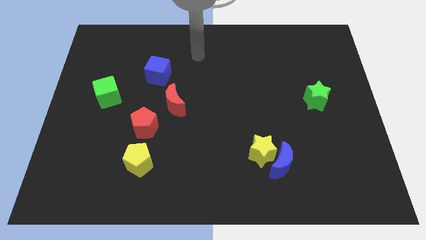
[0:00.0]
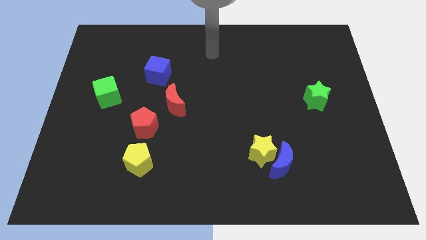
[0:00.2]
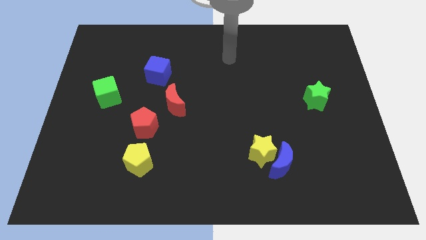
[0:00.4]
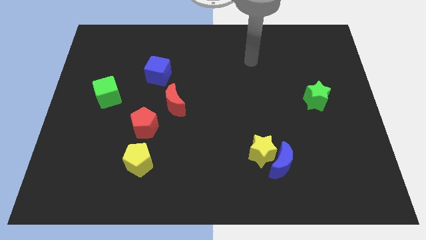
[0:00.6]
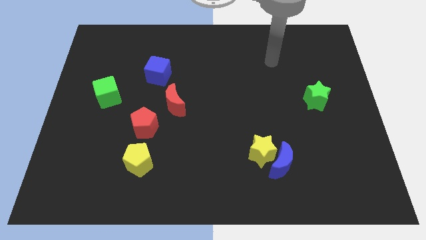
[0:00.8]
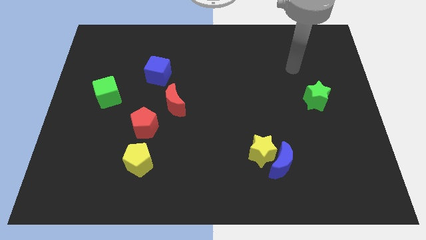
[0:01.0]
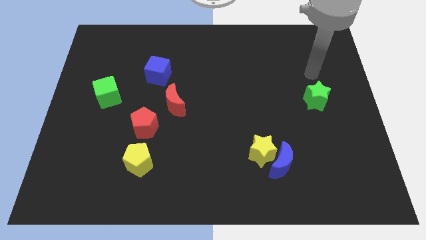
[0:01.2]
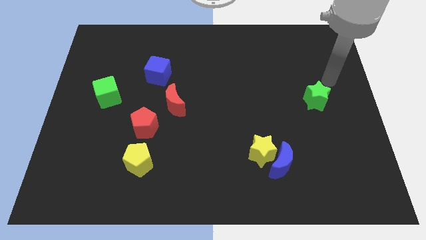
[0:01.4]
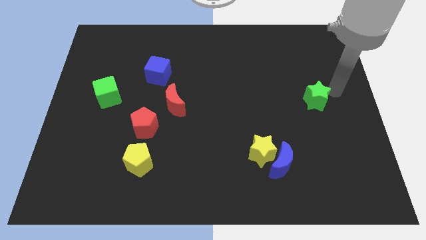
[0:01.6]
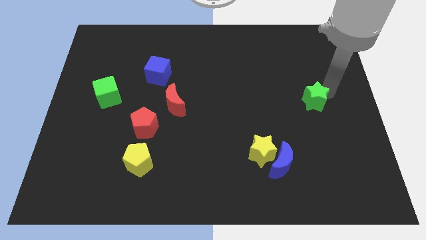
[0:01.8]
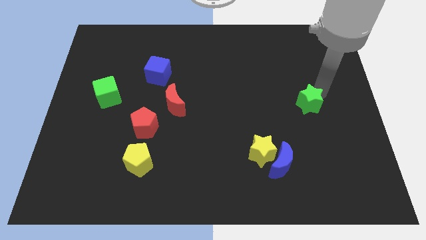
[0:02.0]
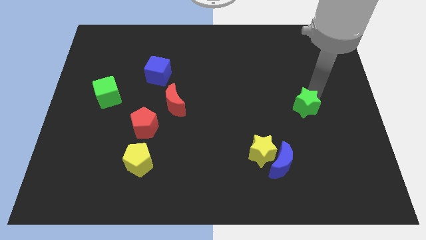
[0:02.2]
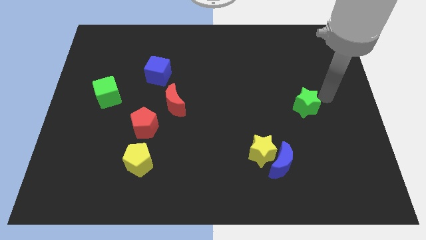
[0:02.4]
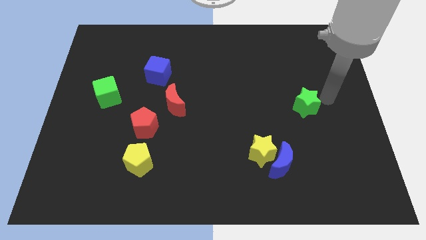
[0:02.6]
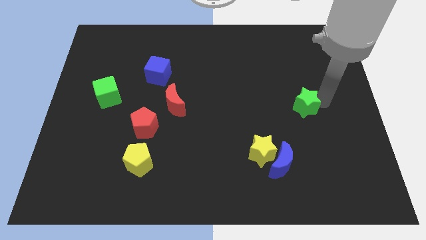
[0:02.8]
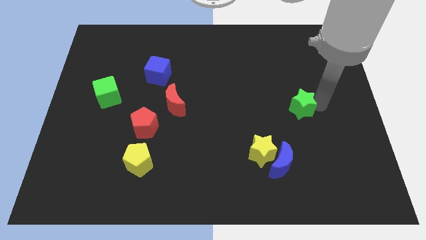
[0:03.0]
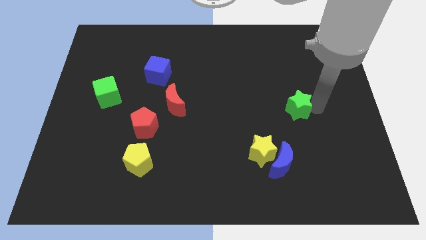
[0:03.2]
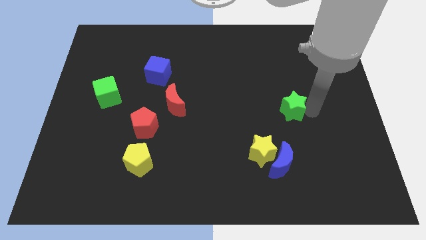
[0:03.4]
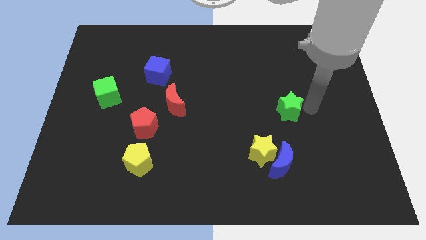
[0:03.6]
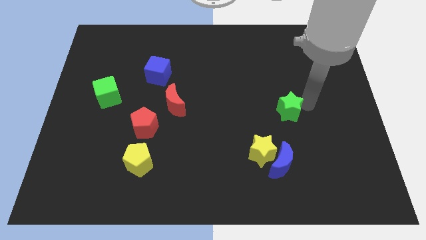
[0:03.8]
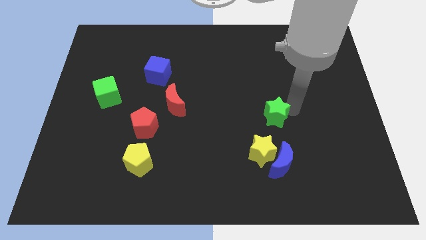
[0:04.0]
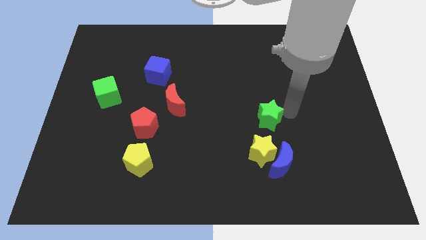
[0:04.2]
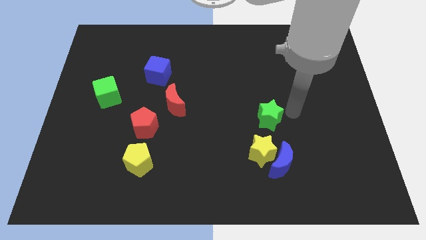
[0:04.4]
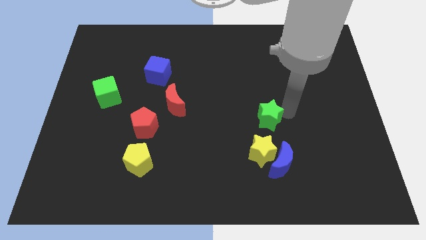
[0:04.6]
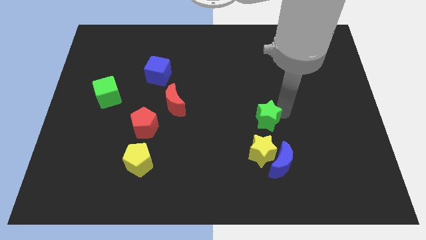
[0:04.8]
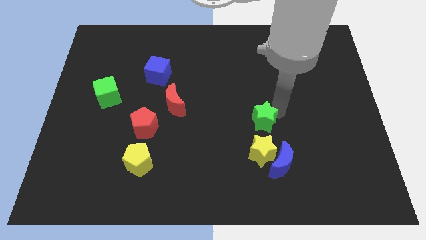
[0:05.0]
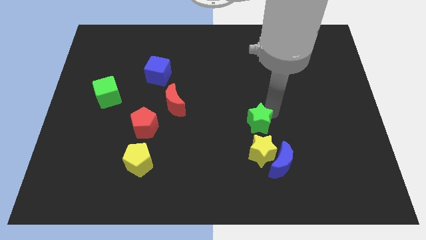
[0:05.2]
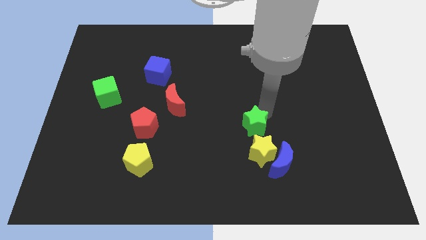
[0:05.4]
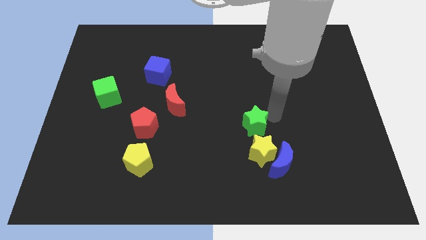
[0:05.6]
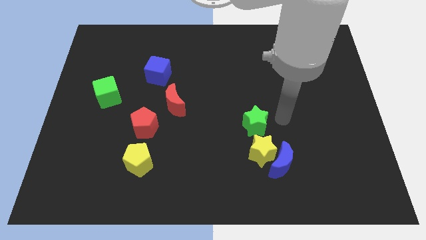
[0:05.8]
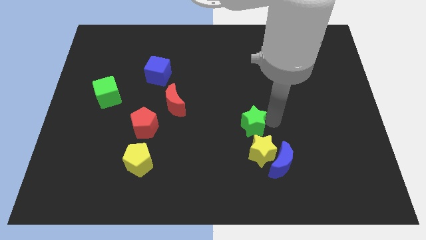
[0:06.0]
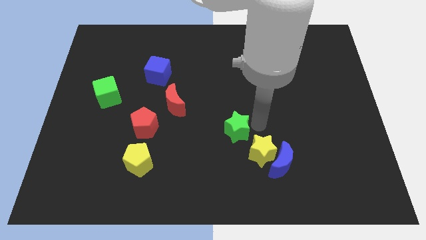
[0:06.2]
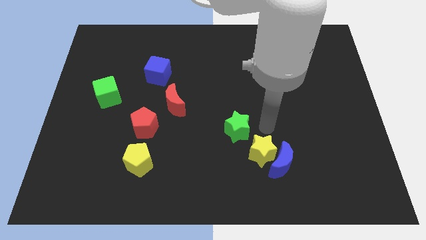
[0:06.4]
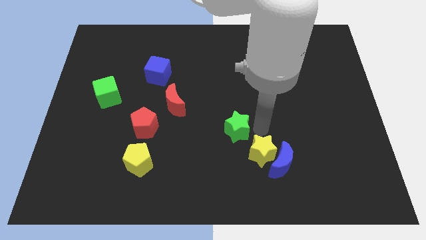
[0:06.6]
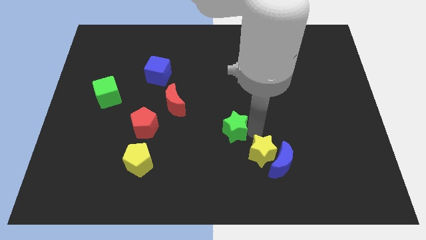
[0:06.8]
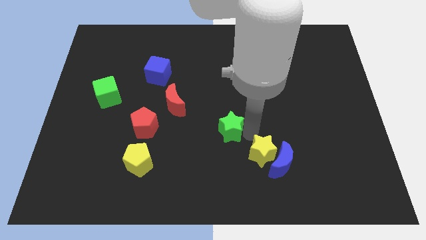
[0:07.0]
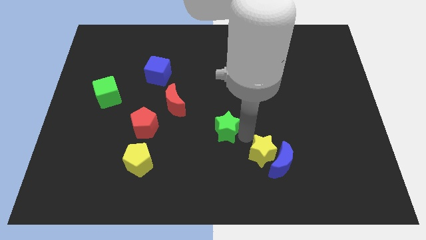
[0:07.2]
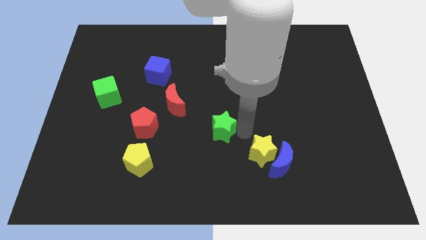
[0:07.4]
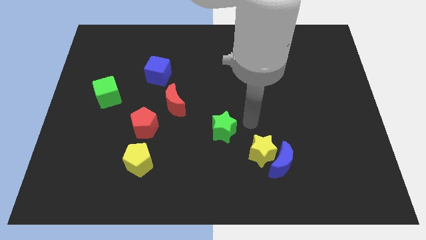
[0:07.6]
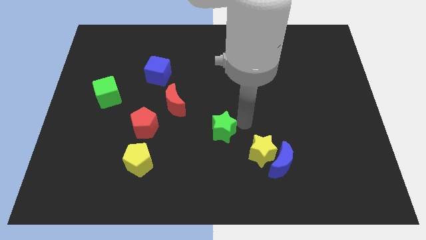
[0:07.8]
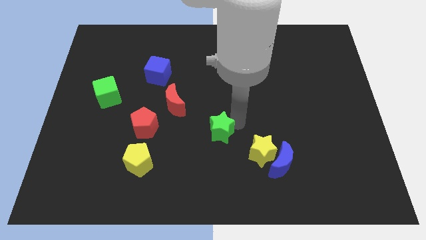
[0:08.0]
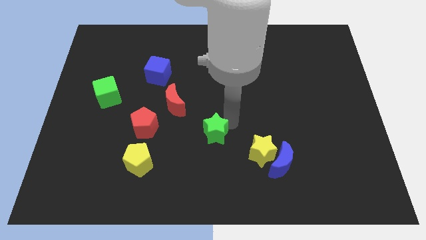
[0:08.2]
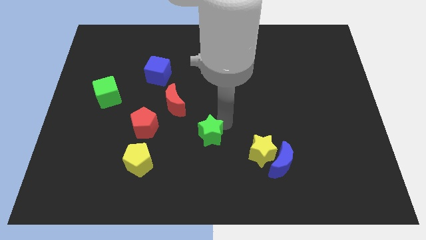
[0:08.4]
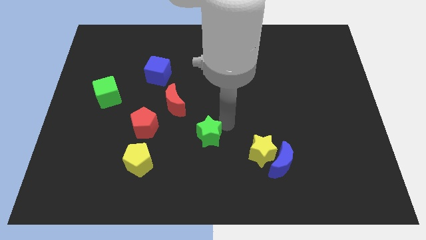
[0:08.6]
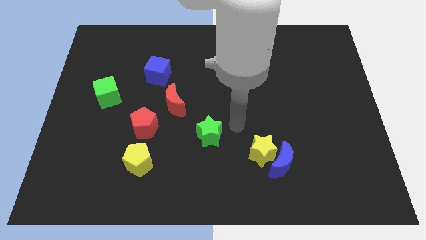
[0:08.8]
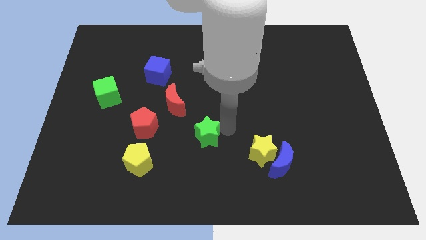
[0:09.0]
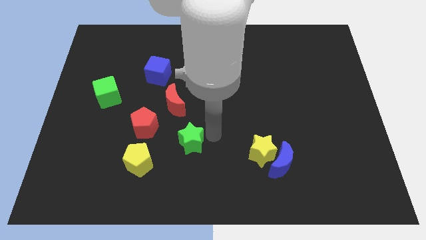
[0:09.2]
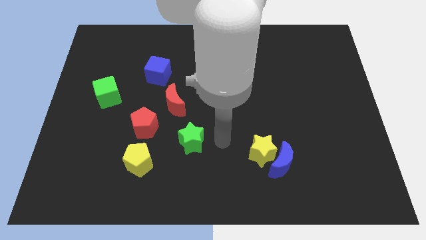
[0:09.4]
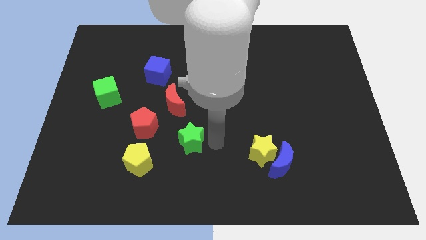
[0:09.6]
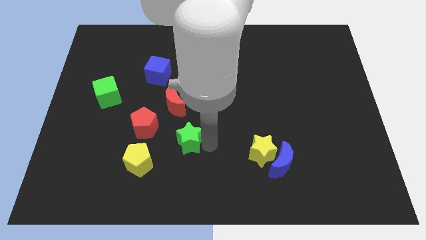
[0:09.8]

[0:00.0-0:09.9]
push the green star to the top right side of the yellow pentagon

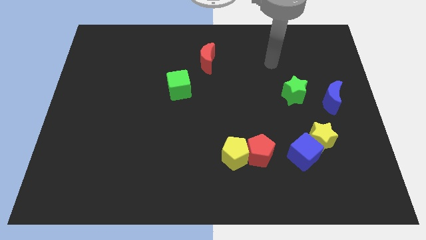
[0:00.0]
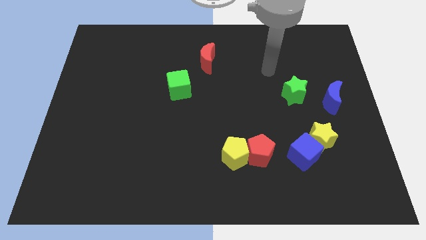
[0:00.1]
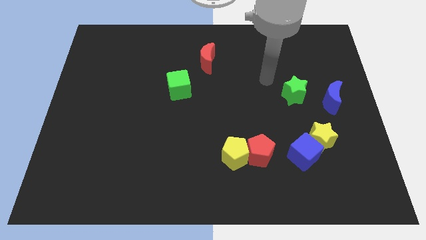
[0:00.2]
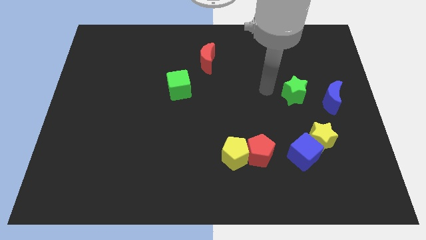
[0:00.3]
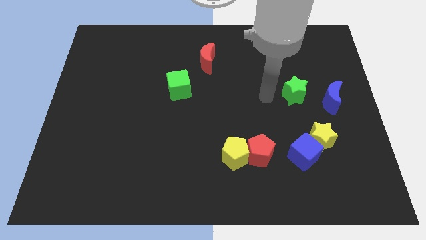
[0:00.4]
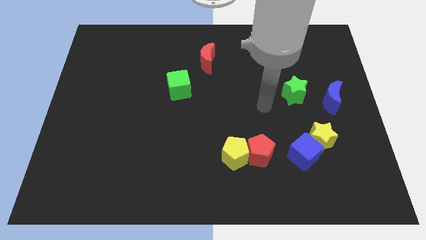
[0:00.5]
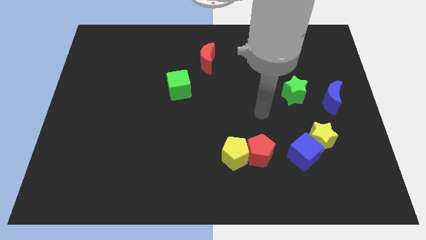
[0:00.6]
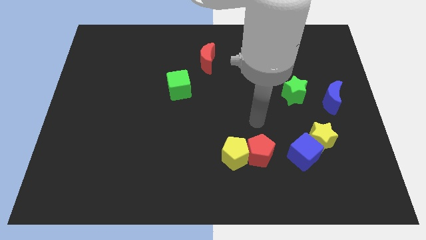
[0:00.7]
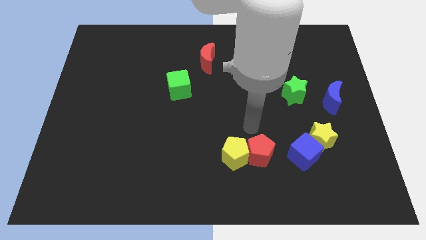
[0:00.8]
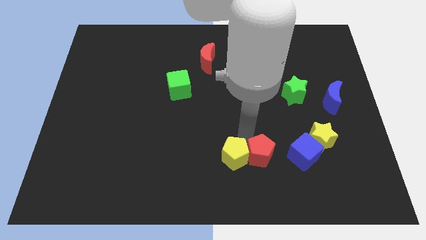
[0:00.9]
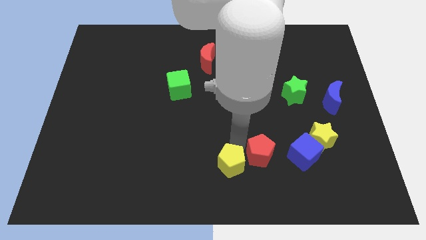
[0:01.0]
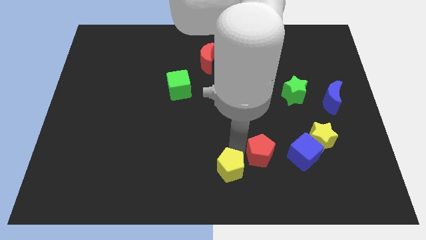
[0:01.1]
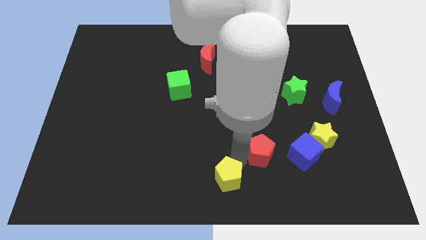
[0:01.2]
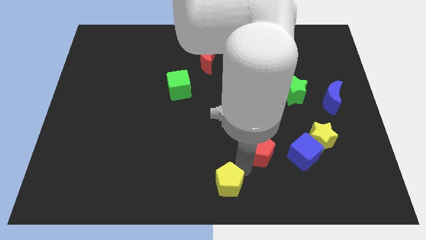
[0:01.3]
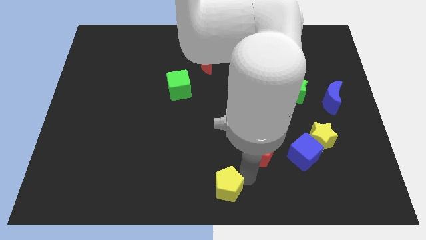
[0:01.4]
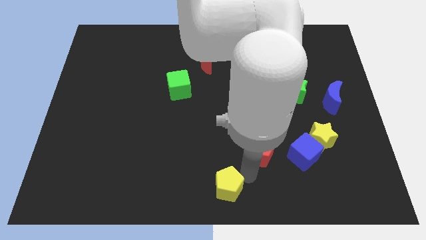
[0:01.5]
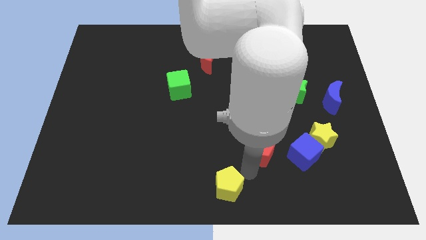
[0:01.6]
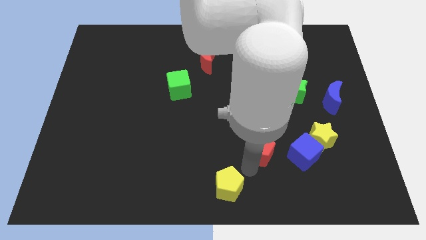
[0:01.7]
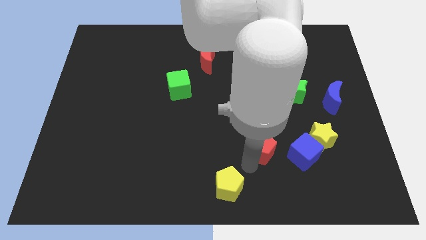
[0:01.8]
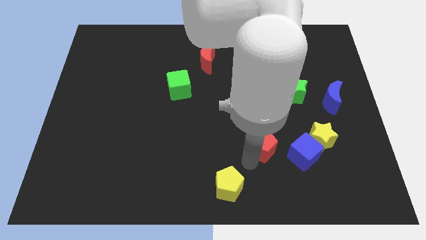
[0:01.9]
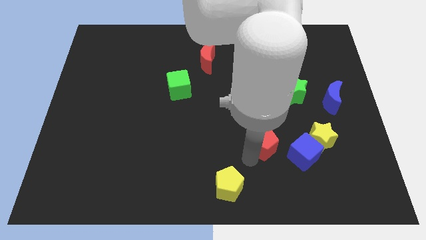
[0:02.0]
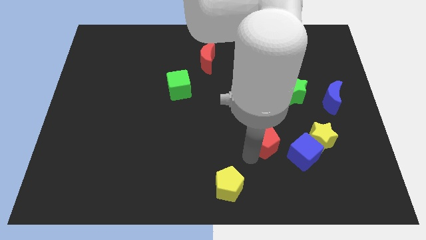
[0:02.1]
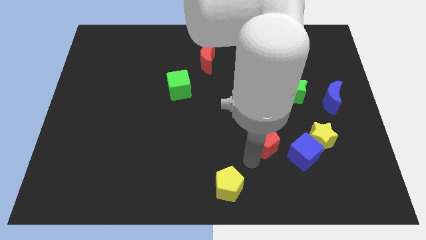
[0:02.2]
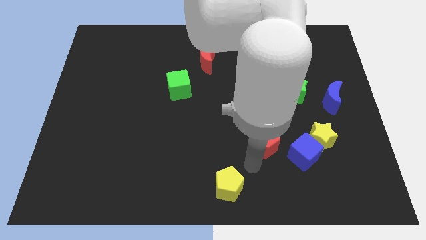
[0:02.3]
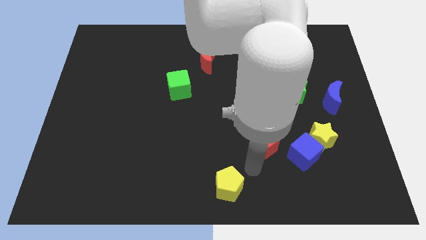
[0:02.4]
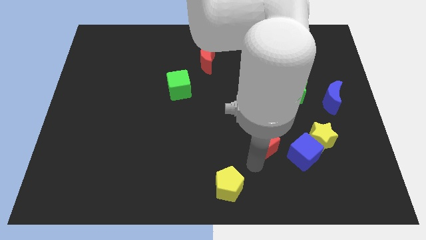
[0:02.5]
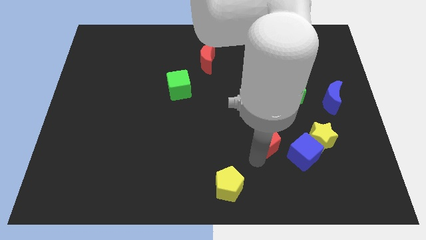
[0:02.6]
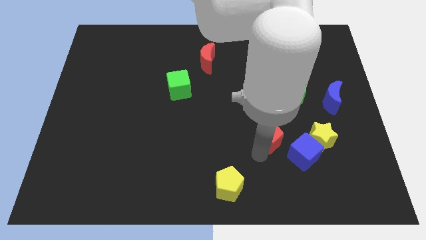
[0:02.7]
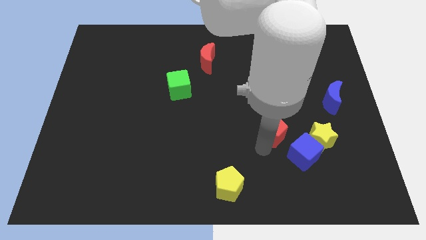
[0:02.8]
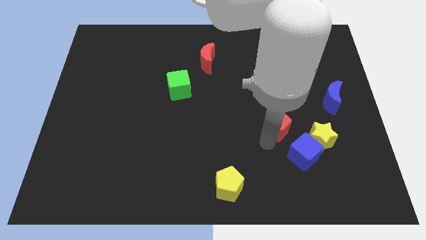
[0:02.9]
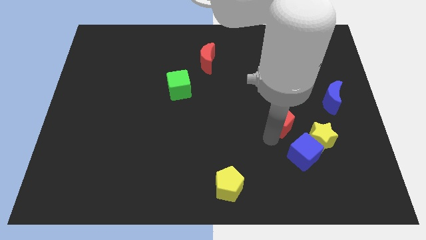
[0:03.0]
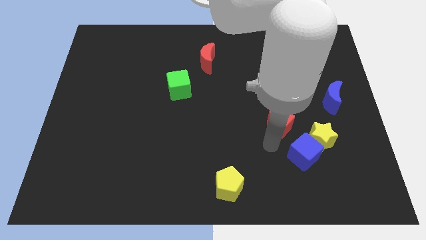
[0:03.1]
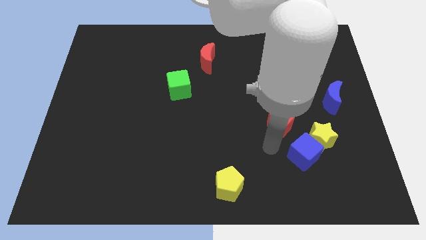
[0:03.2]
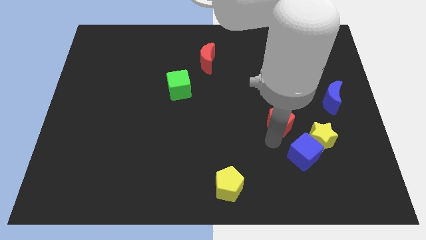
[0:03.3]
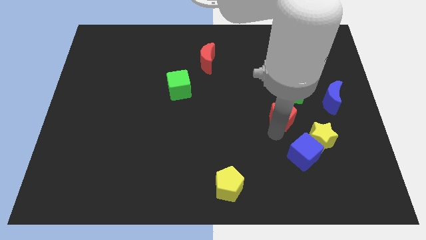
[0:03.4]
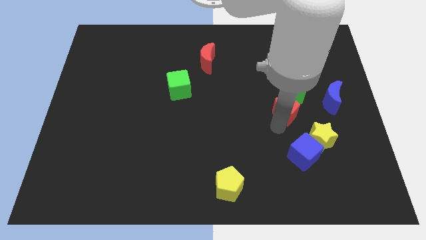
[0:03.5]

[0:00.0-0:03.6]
slide the red pentagon to the left side of the blue moon
